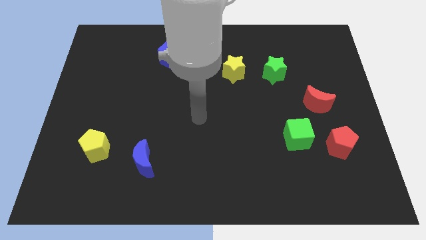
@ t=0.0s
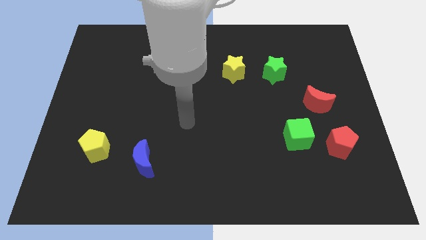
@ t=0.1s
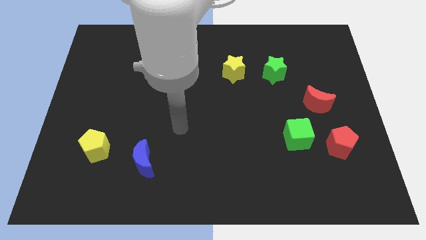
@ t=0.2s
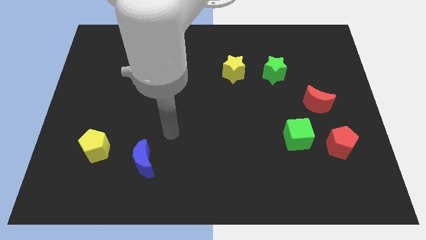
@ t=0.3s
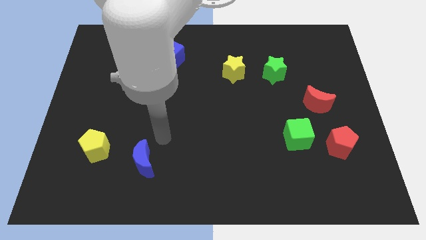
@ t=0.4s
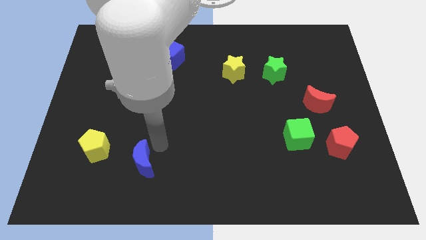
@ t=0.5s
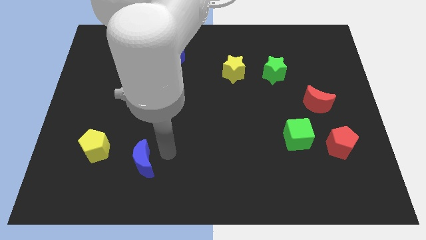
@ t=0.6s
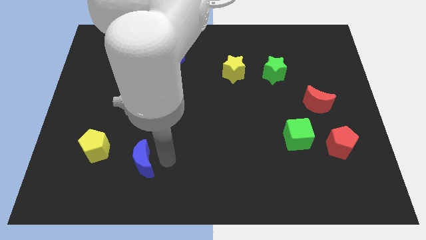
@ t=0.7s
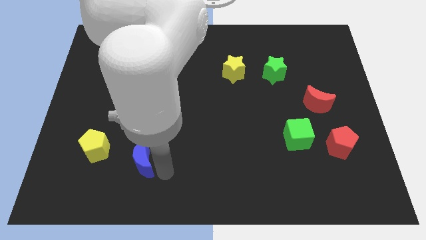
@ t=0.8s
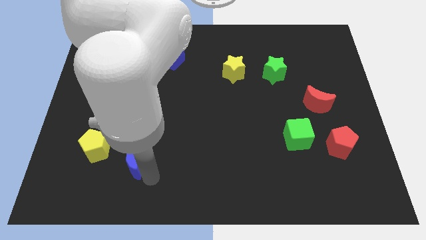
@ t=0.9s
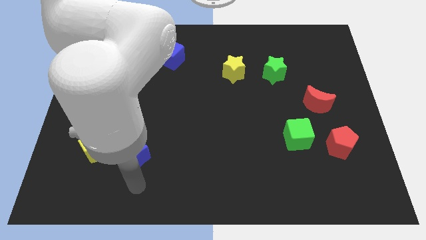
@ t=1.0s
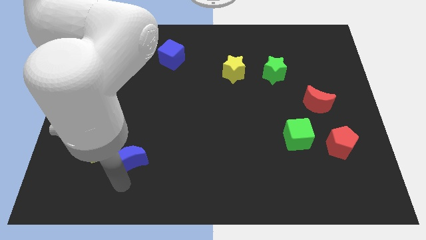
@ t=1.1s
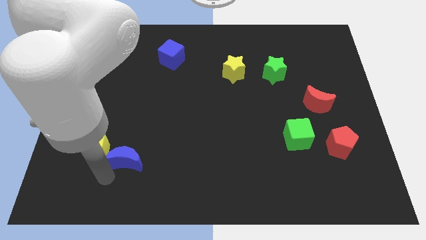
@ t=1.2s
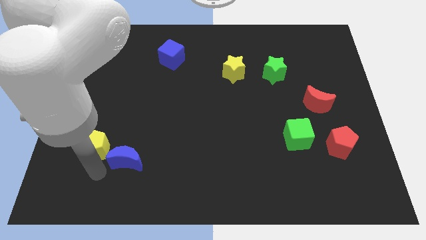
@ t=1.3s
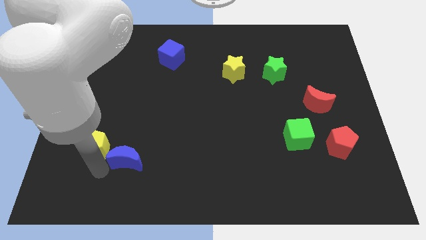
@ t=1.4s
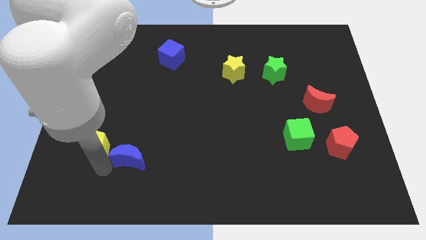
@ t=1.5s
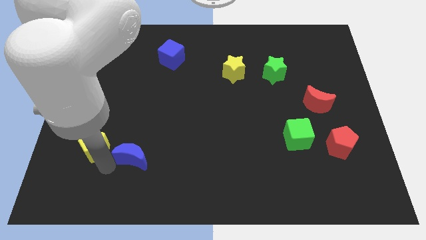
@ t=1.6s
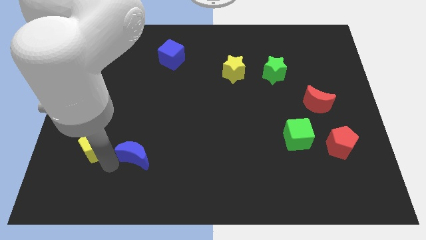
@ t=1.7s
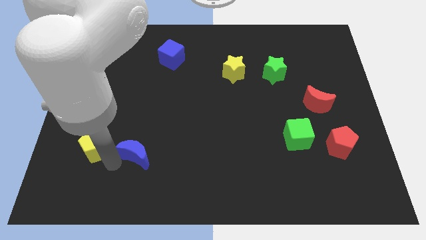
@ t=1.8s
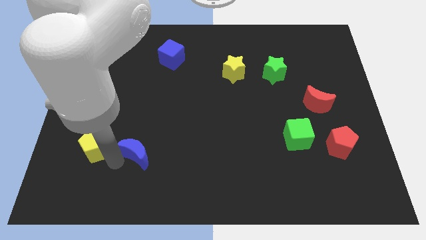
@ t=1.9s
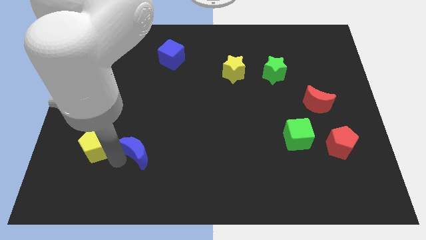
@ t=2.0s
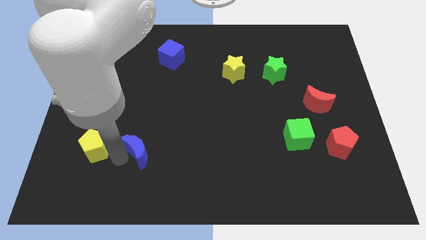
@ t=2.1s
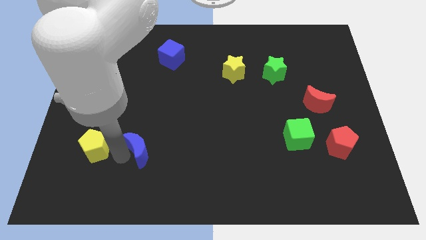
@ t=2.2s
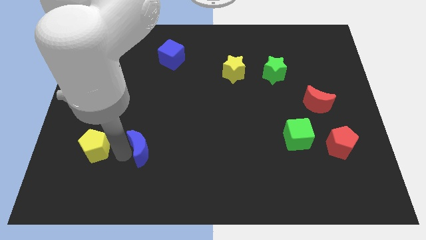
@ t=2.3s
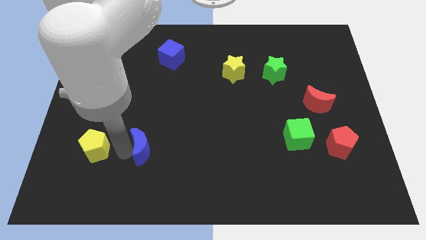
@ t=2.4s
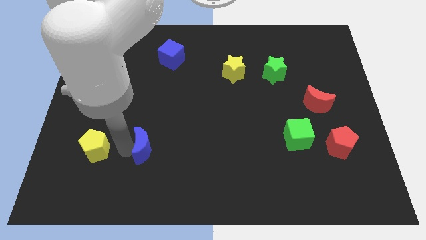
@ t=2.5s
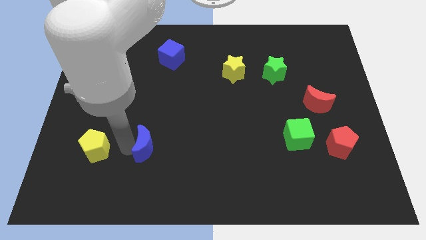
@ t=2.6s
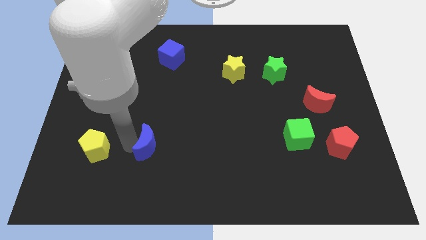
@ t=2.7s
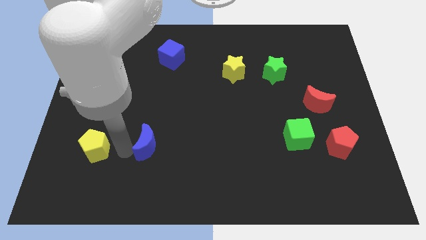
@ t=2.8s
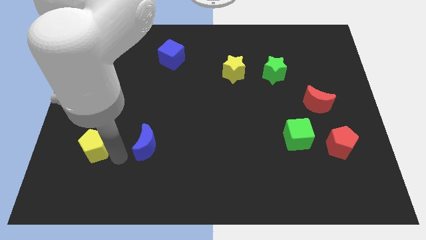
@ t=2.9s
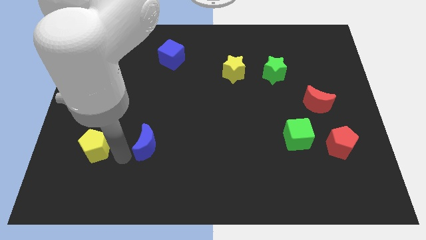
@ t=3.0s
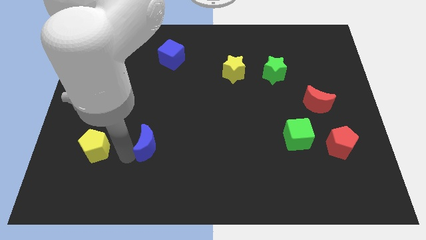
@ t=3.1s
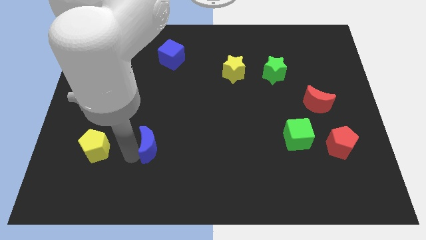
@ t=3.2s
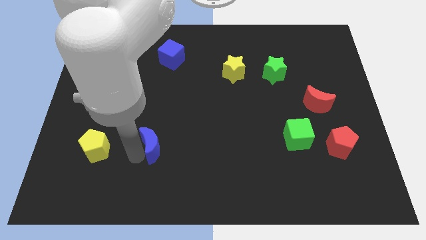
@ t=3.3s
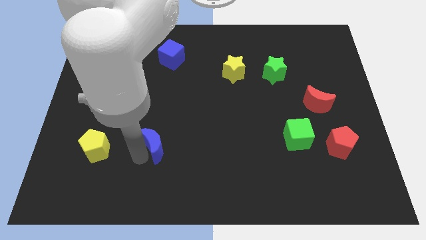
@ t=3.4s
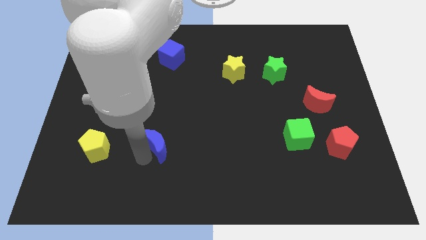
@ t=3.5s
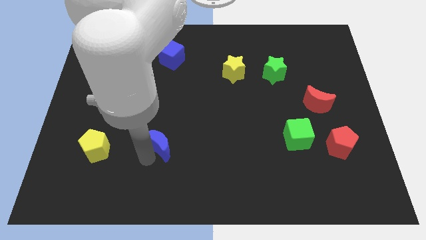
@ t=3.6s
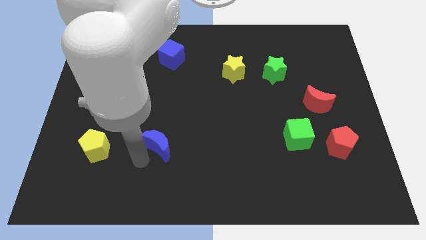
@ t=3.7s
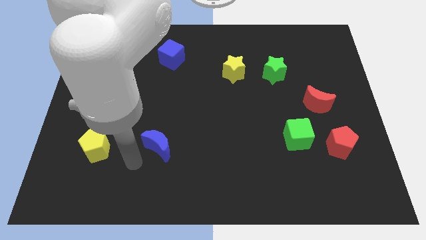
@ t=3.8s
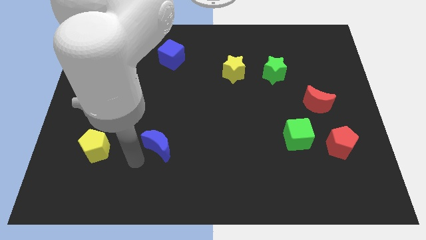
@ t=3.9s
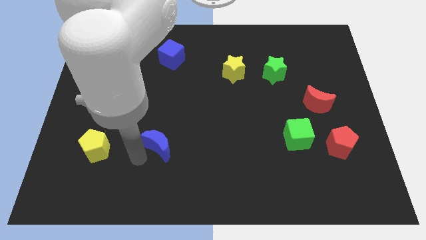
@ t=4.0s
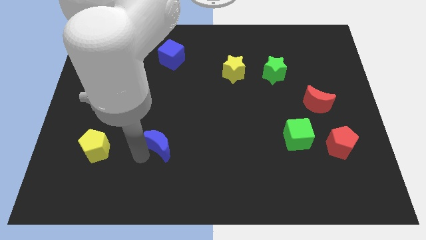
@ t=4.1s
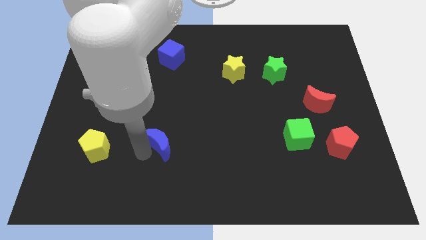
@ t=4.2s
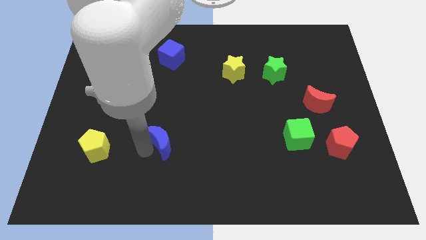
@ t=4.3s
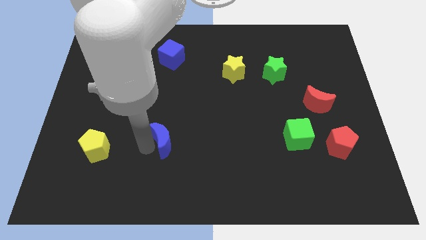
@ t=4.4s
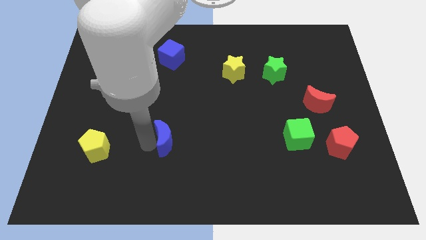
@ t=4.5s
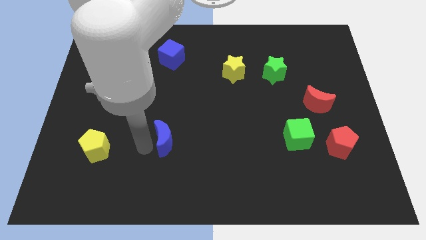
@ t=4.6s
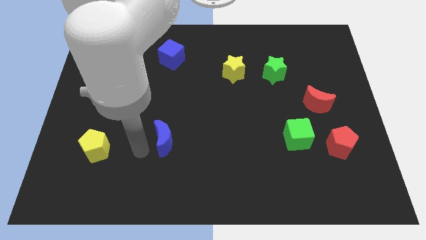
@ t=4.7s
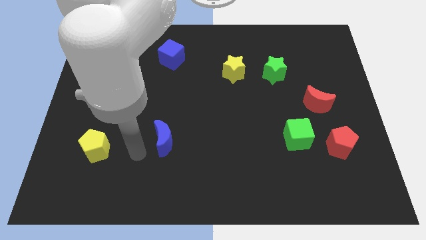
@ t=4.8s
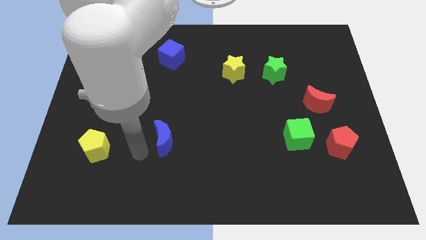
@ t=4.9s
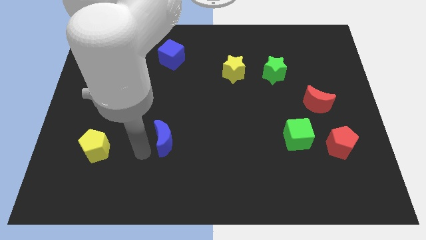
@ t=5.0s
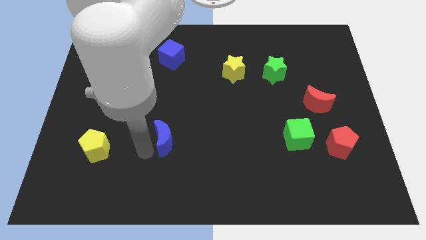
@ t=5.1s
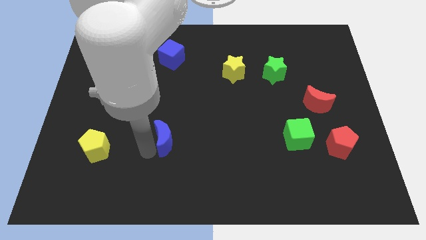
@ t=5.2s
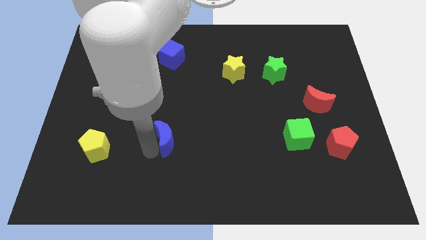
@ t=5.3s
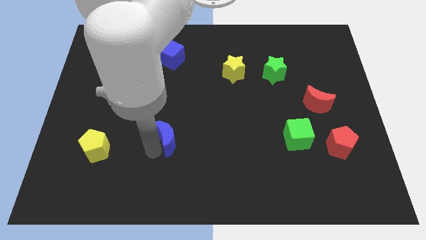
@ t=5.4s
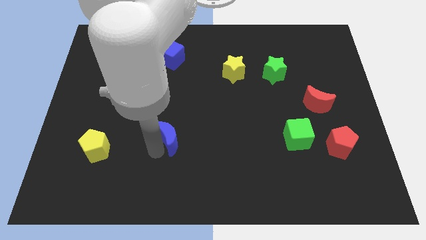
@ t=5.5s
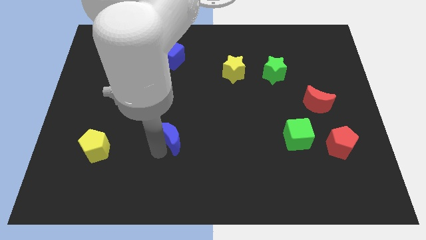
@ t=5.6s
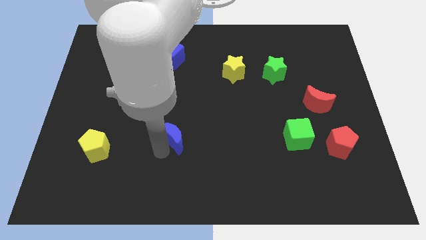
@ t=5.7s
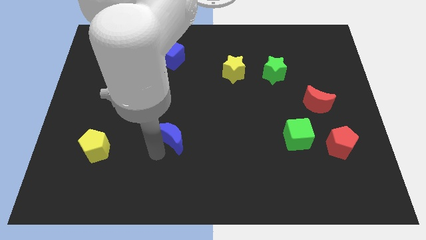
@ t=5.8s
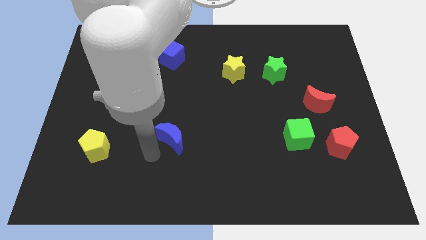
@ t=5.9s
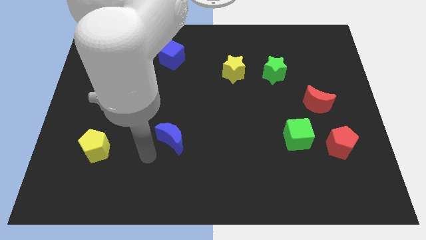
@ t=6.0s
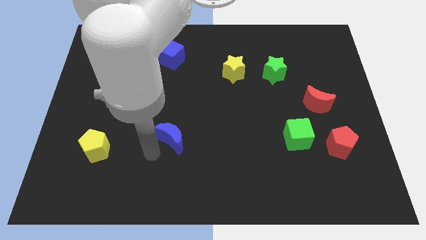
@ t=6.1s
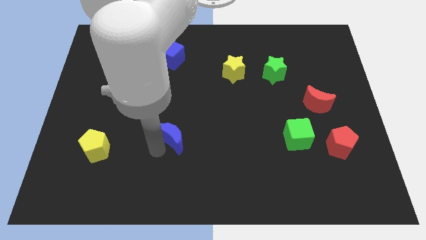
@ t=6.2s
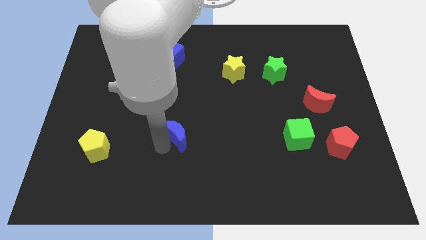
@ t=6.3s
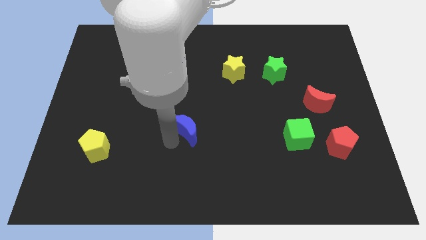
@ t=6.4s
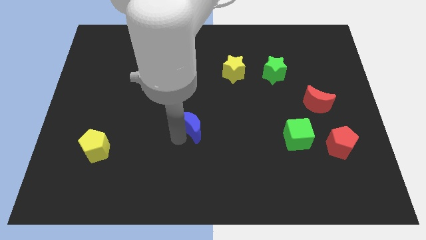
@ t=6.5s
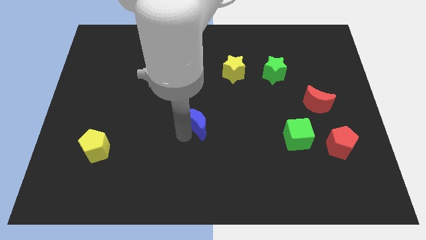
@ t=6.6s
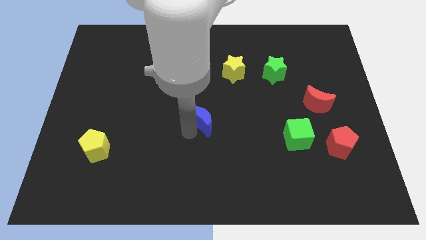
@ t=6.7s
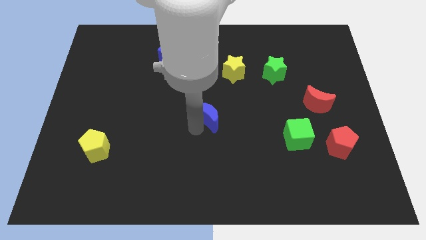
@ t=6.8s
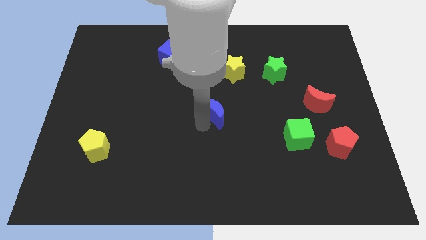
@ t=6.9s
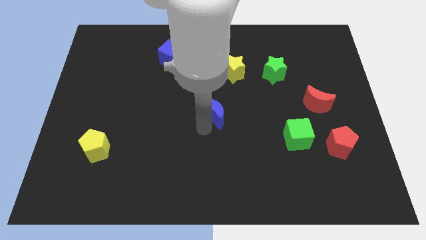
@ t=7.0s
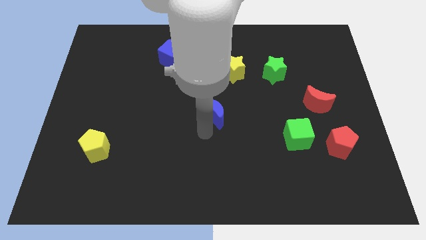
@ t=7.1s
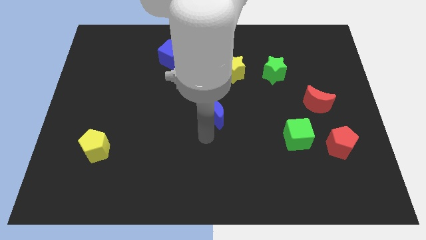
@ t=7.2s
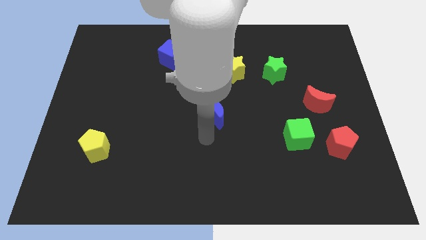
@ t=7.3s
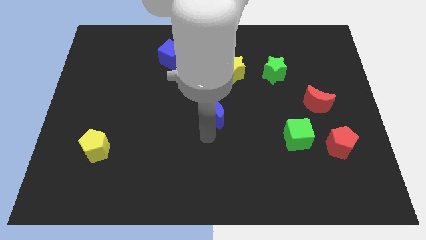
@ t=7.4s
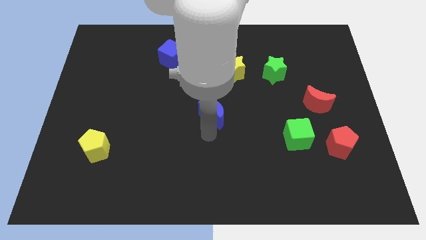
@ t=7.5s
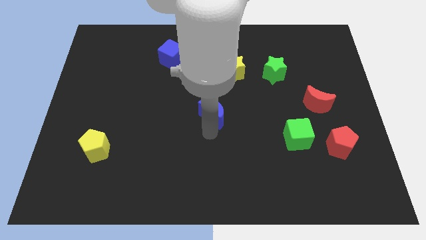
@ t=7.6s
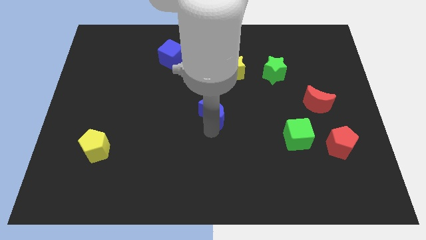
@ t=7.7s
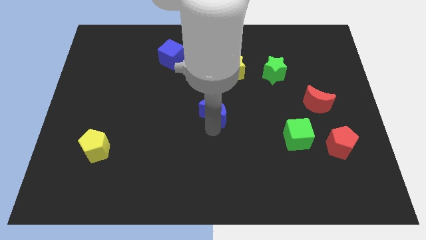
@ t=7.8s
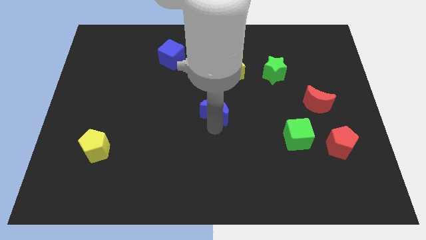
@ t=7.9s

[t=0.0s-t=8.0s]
slide the blue moon up and right
